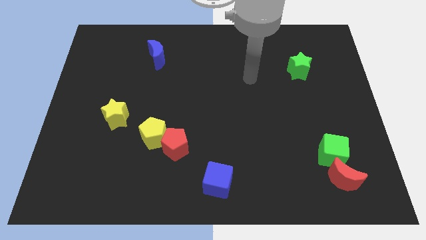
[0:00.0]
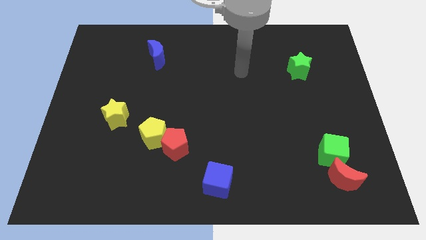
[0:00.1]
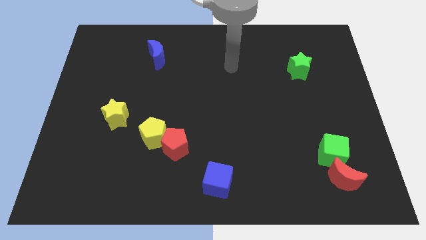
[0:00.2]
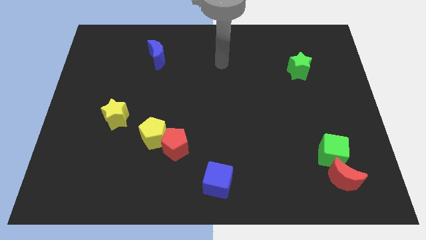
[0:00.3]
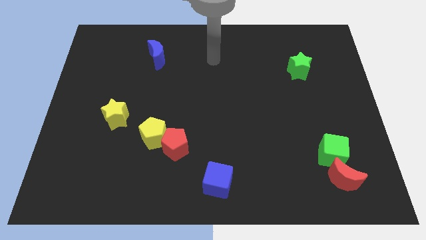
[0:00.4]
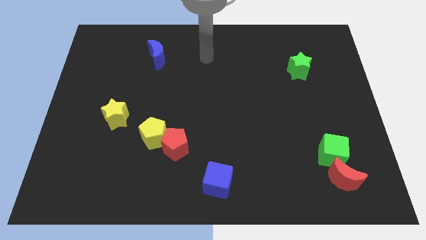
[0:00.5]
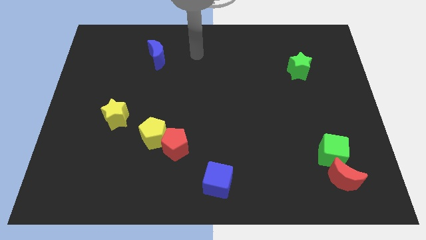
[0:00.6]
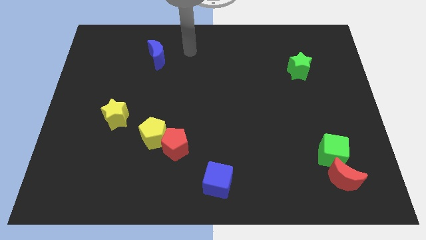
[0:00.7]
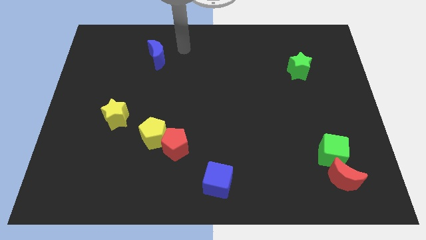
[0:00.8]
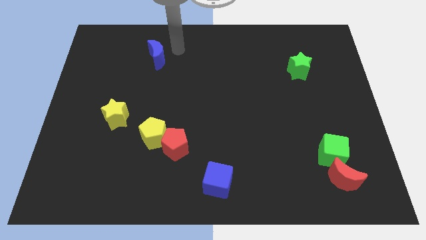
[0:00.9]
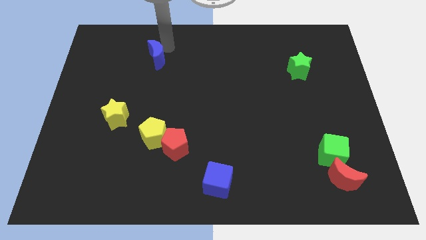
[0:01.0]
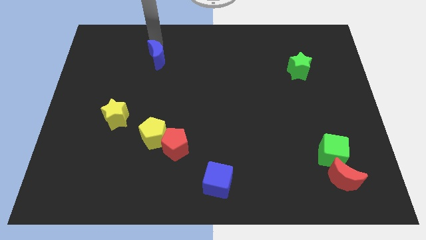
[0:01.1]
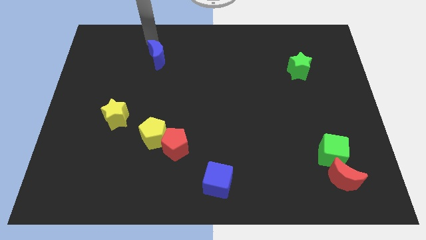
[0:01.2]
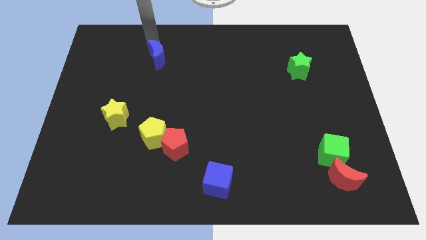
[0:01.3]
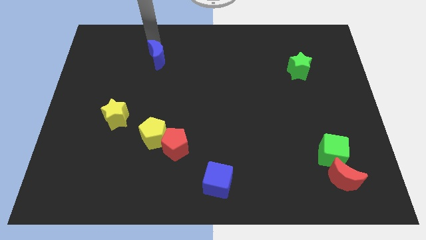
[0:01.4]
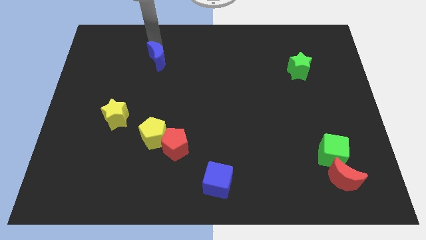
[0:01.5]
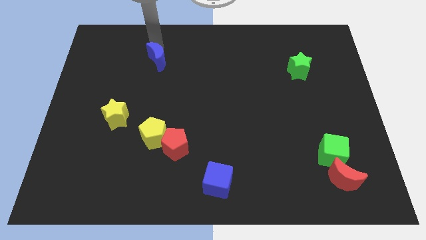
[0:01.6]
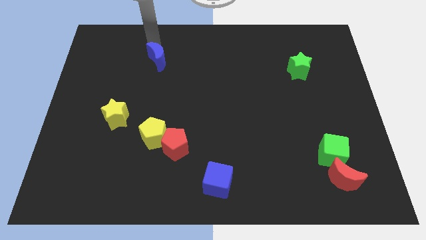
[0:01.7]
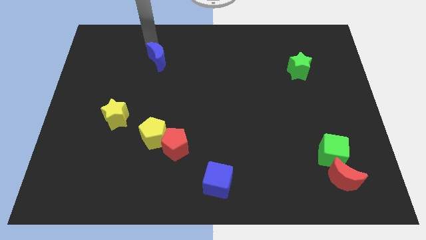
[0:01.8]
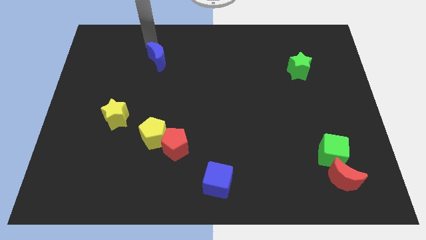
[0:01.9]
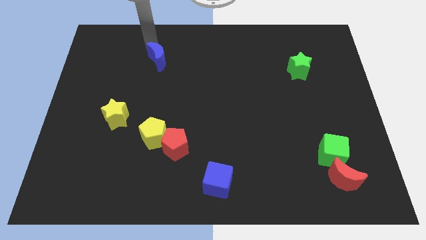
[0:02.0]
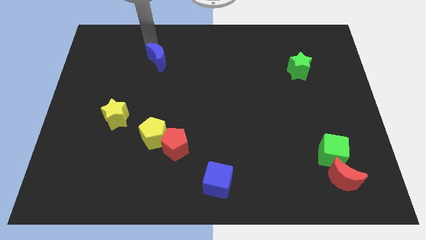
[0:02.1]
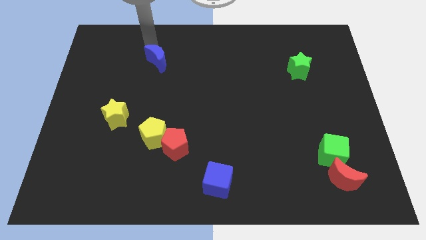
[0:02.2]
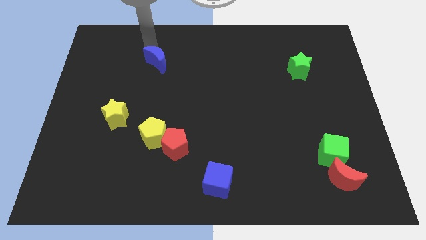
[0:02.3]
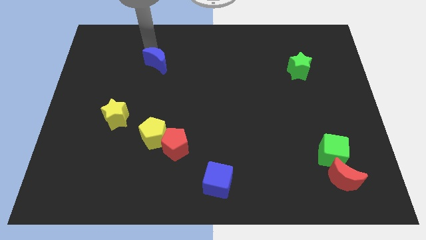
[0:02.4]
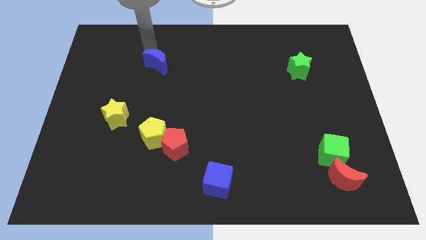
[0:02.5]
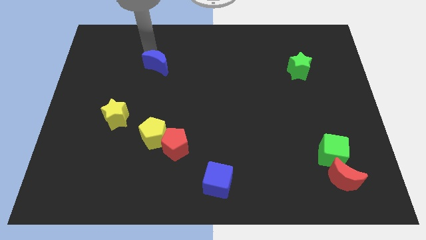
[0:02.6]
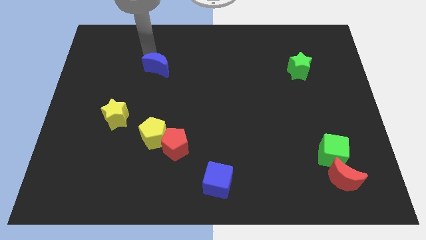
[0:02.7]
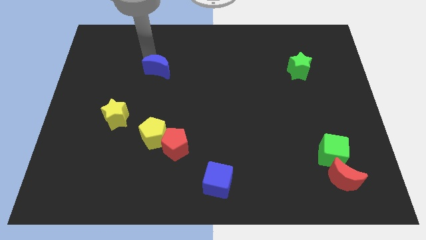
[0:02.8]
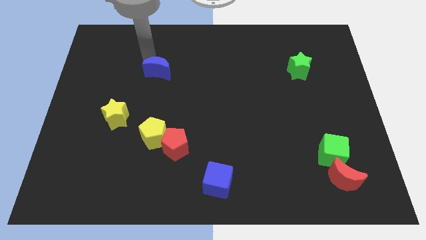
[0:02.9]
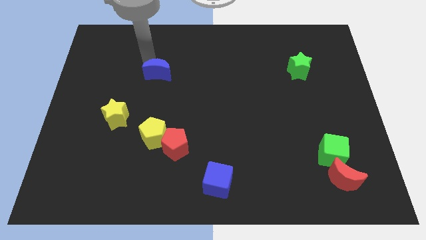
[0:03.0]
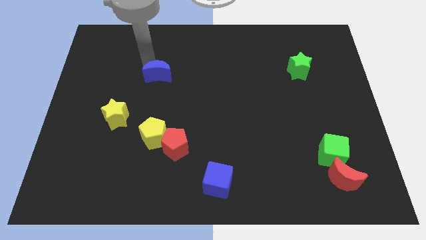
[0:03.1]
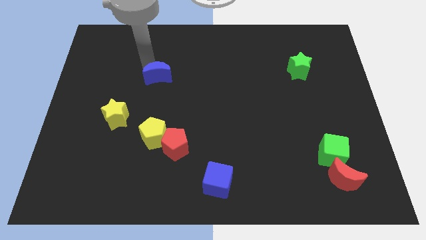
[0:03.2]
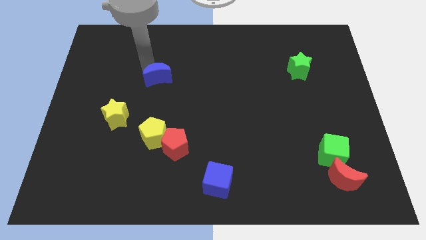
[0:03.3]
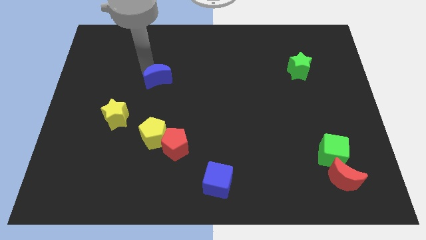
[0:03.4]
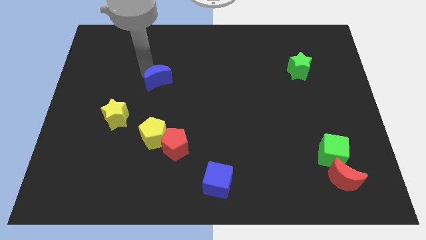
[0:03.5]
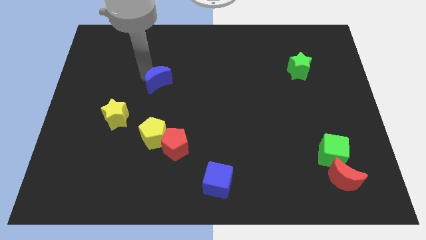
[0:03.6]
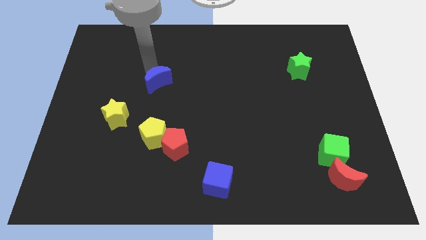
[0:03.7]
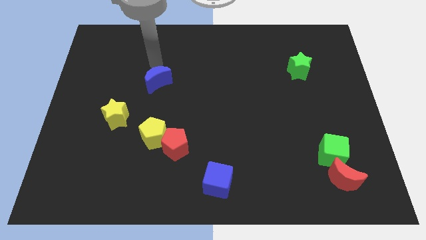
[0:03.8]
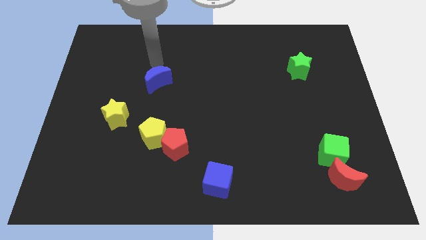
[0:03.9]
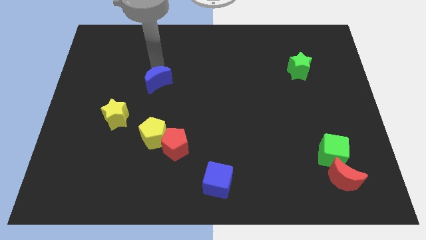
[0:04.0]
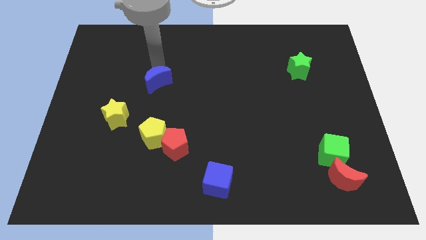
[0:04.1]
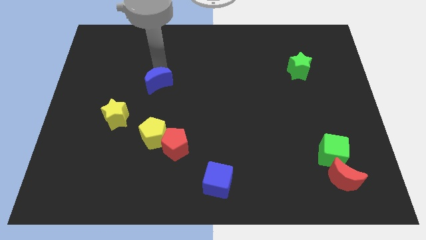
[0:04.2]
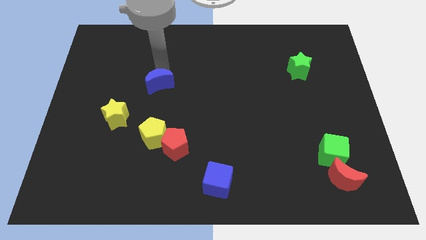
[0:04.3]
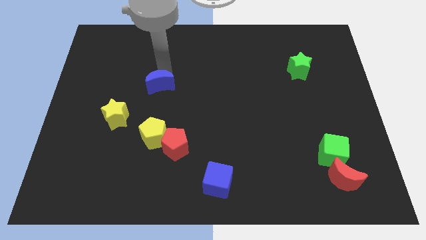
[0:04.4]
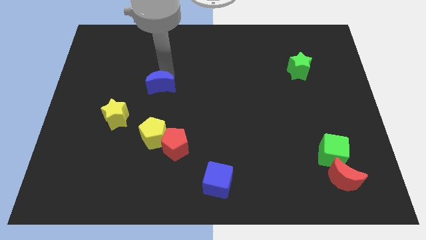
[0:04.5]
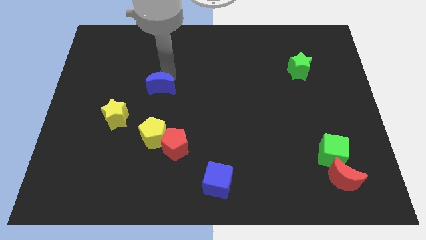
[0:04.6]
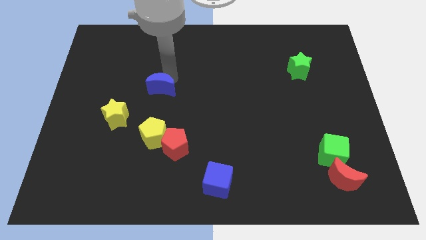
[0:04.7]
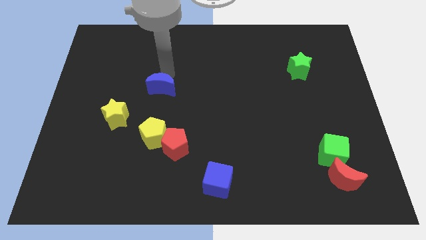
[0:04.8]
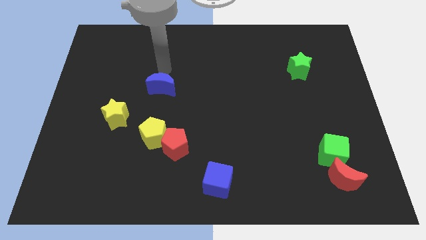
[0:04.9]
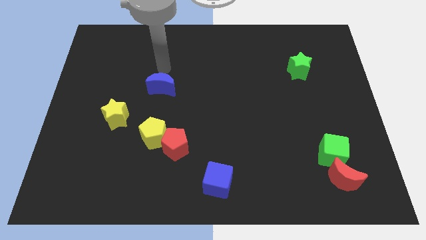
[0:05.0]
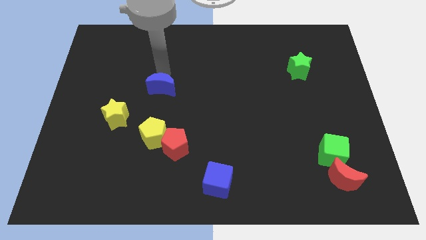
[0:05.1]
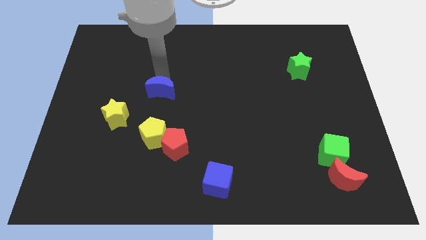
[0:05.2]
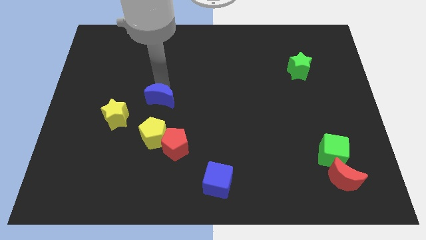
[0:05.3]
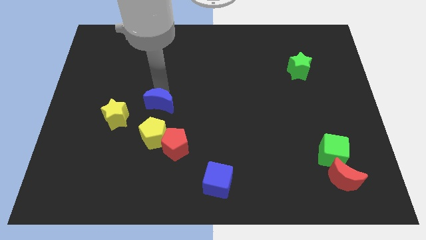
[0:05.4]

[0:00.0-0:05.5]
put the blue moon to the right side of the yellow star

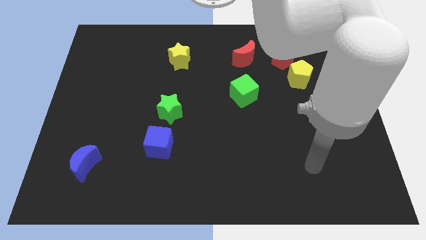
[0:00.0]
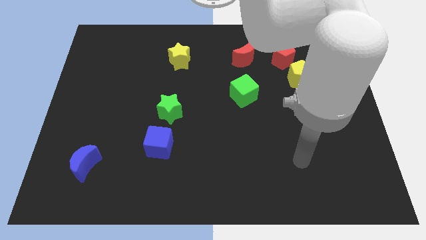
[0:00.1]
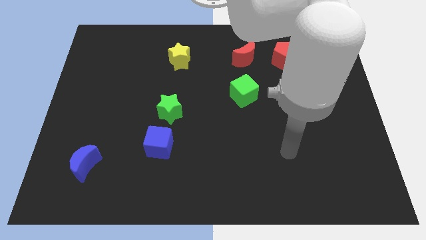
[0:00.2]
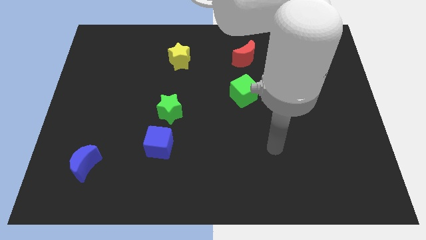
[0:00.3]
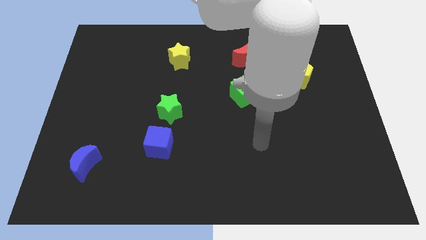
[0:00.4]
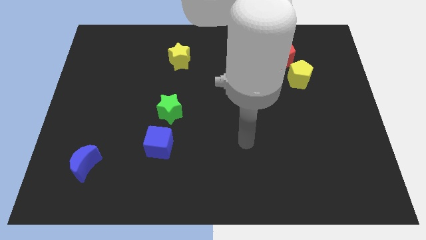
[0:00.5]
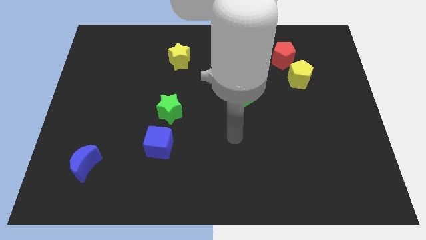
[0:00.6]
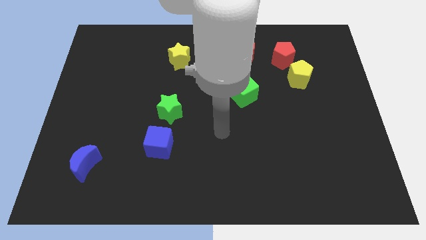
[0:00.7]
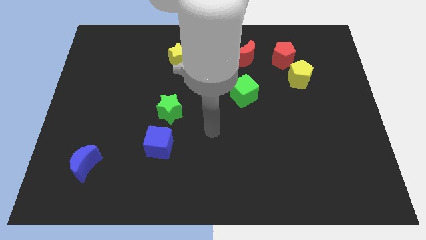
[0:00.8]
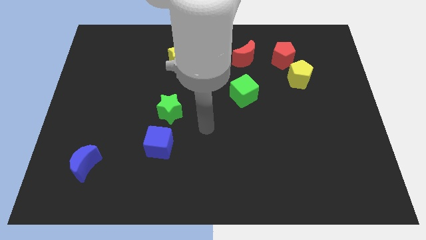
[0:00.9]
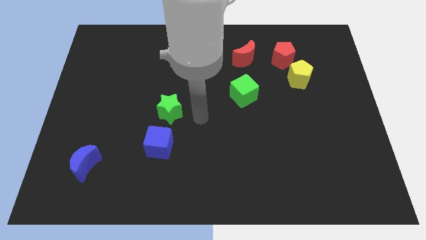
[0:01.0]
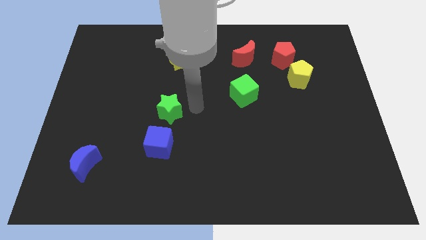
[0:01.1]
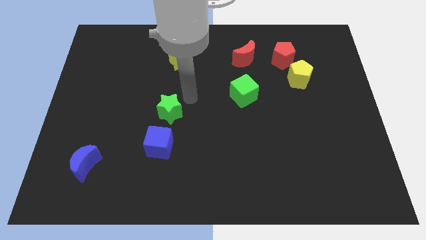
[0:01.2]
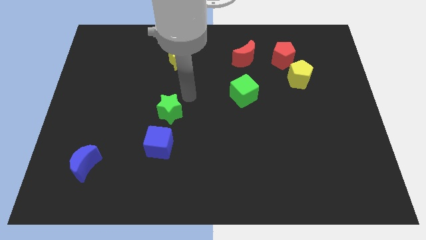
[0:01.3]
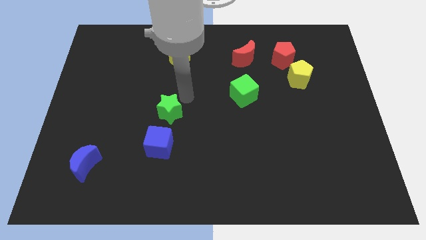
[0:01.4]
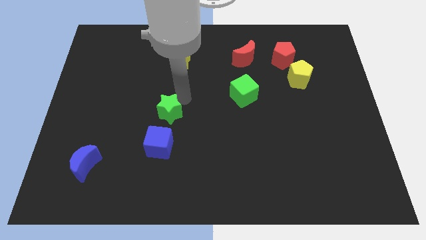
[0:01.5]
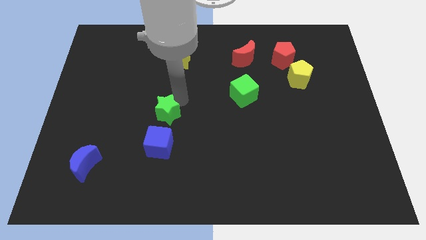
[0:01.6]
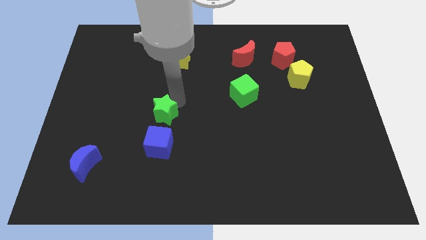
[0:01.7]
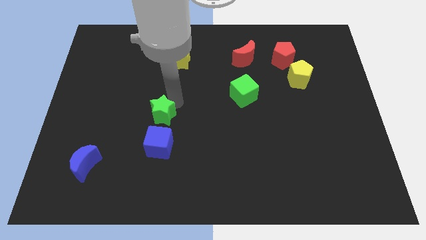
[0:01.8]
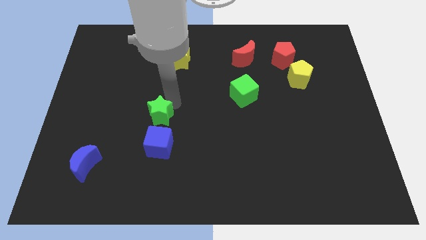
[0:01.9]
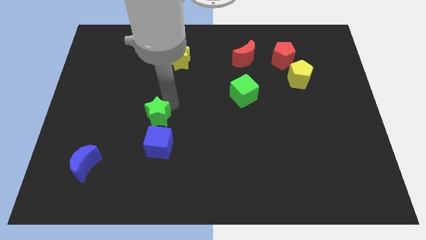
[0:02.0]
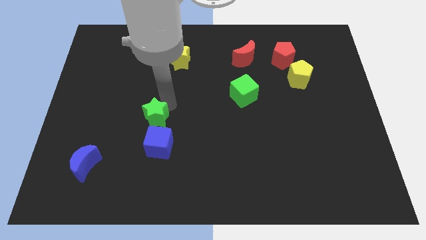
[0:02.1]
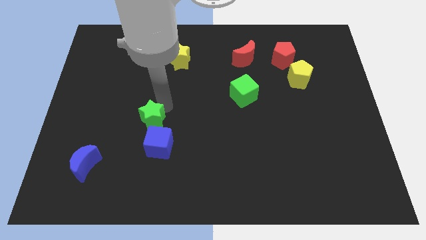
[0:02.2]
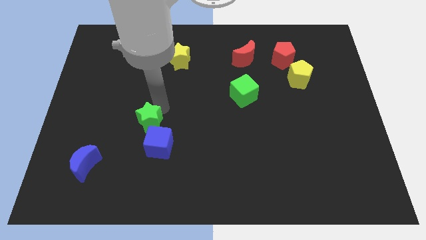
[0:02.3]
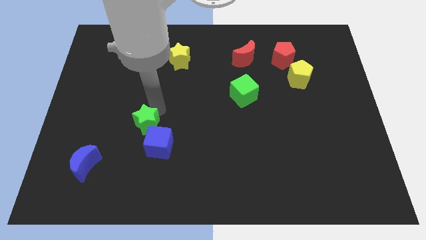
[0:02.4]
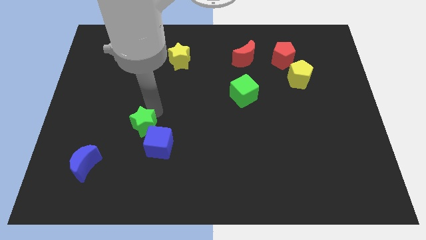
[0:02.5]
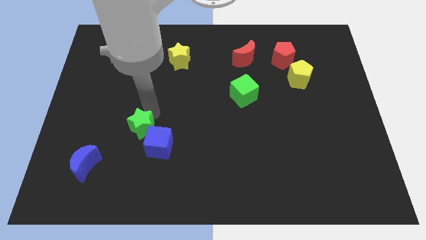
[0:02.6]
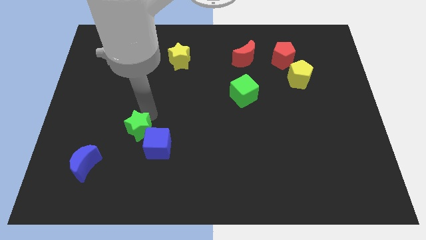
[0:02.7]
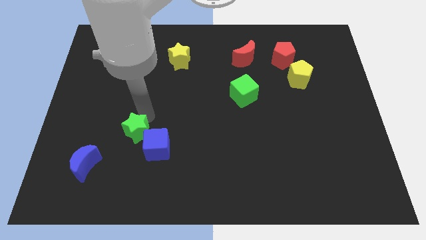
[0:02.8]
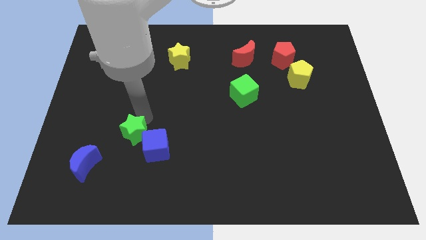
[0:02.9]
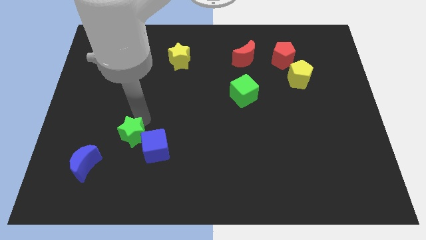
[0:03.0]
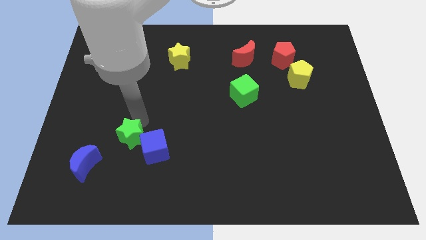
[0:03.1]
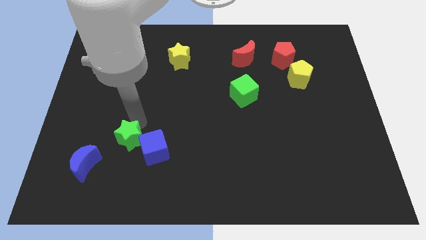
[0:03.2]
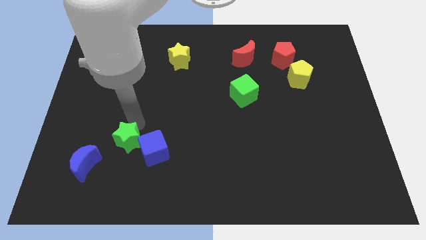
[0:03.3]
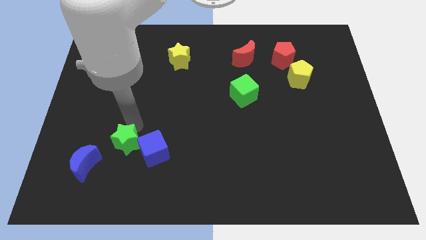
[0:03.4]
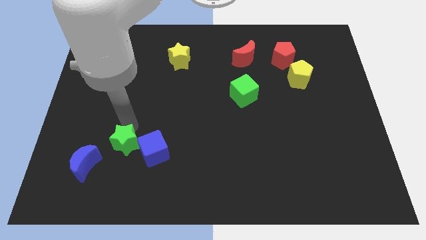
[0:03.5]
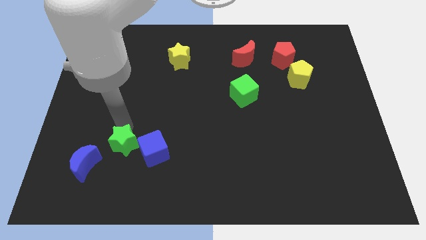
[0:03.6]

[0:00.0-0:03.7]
move the green star just right of the blue moon
